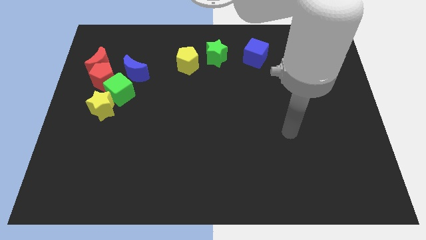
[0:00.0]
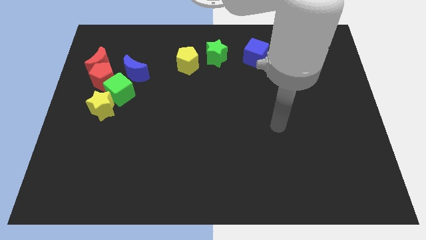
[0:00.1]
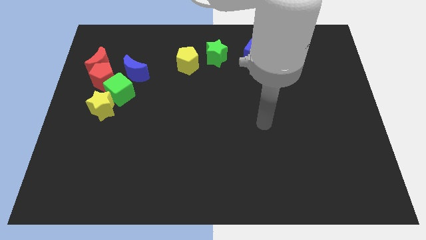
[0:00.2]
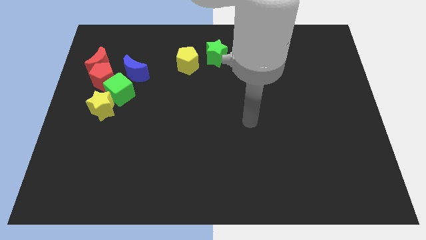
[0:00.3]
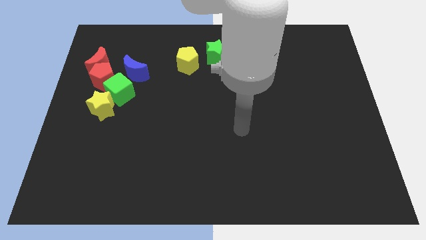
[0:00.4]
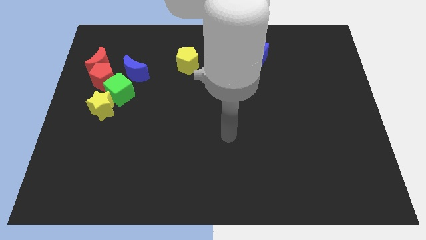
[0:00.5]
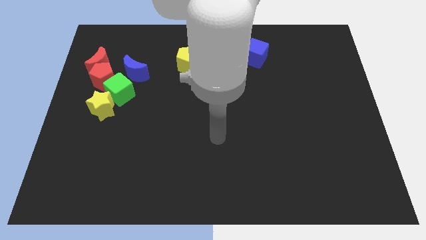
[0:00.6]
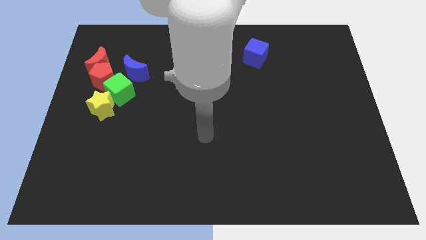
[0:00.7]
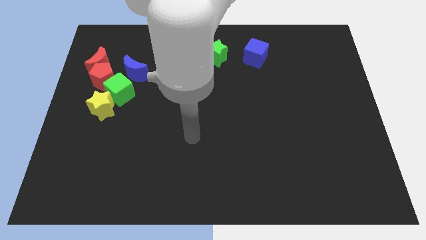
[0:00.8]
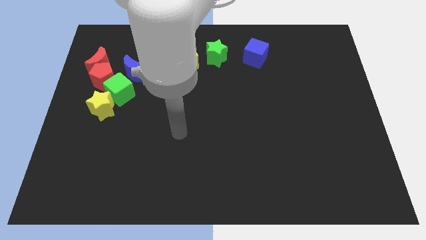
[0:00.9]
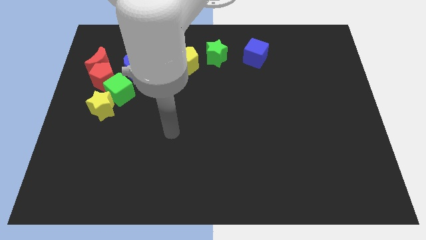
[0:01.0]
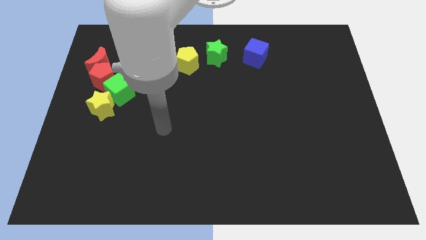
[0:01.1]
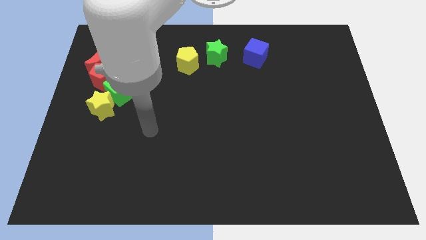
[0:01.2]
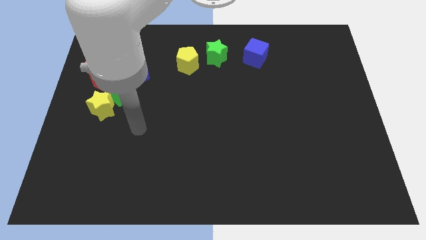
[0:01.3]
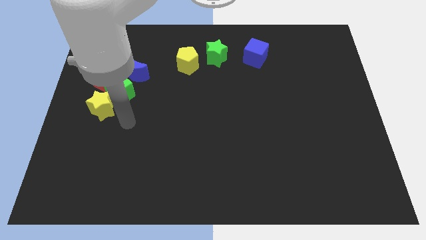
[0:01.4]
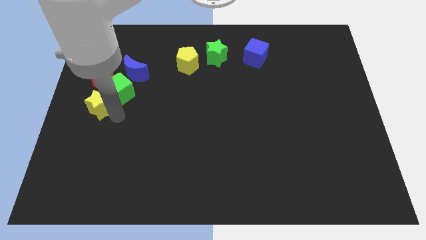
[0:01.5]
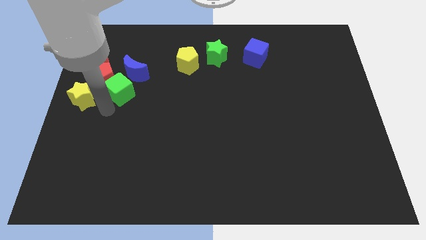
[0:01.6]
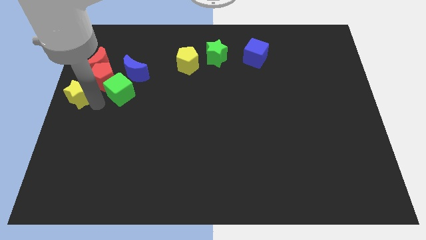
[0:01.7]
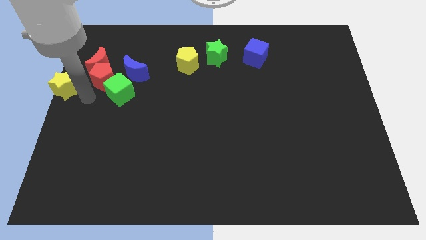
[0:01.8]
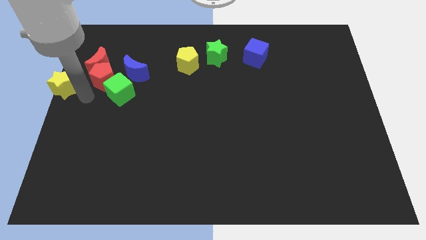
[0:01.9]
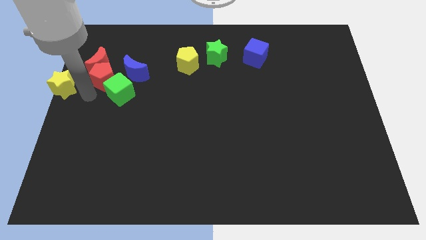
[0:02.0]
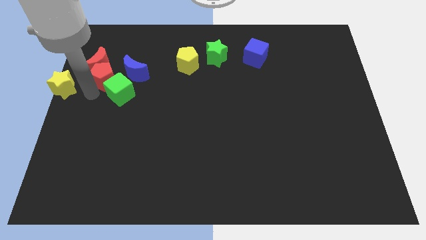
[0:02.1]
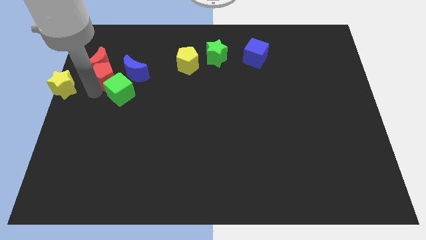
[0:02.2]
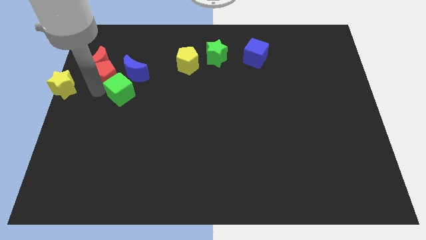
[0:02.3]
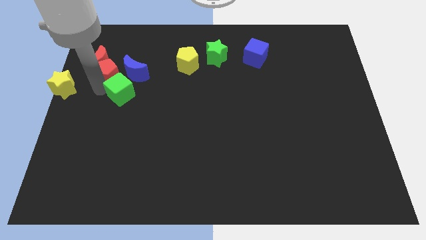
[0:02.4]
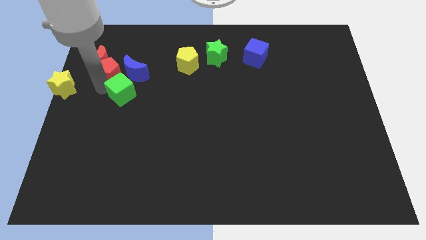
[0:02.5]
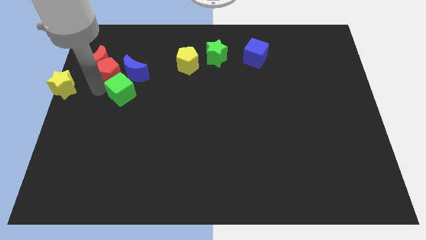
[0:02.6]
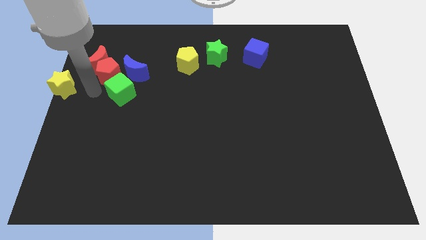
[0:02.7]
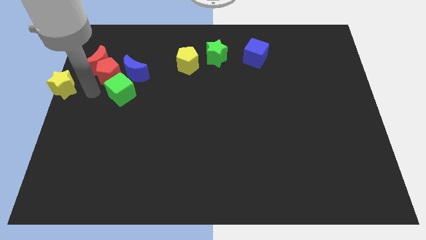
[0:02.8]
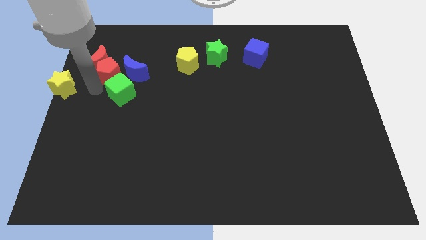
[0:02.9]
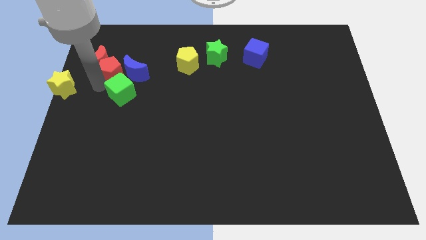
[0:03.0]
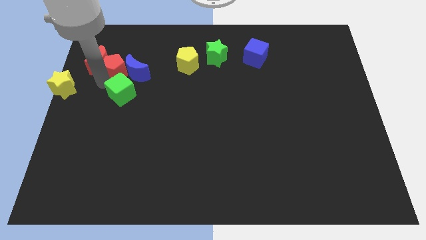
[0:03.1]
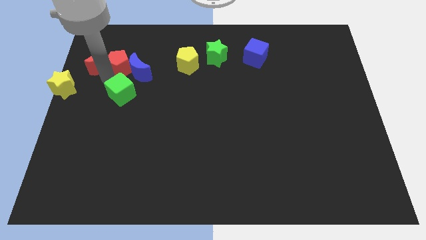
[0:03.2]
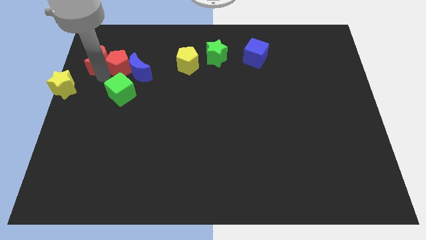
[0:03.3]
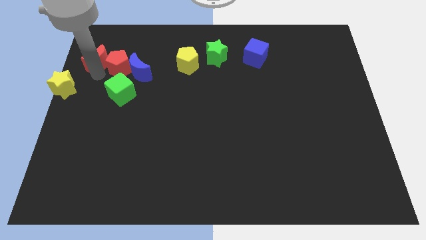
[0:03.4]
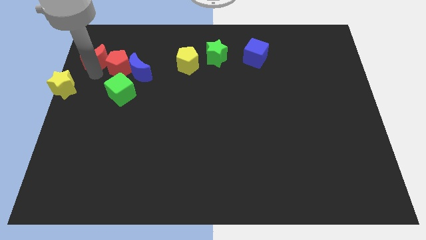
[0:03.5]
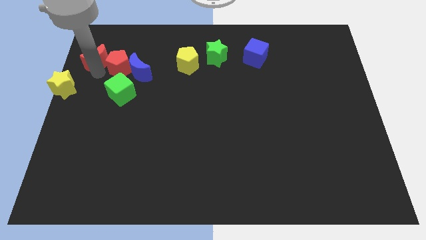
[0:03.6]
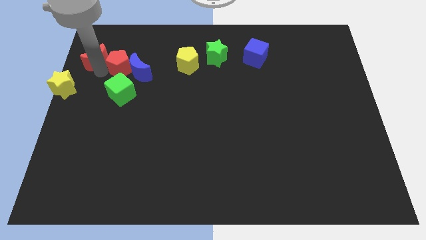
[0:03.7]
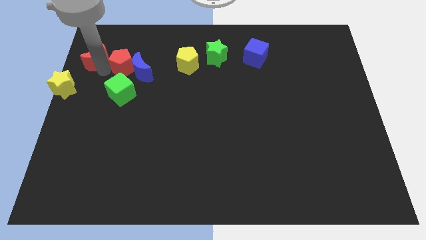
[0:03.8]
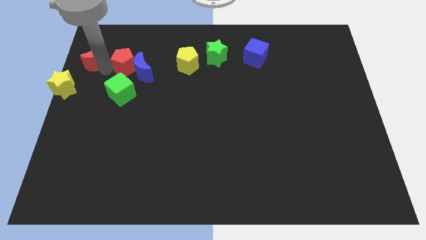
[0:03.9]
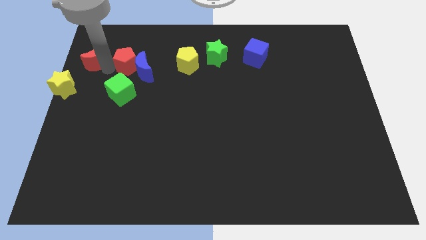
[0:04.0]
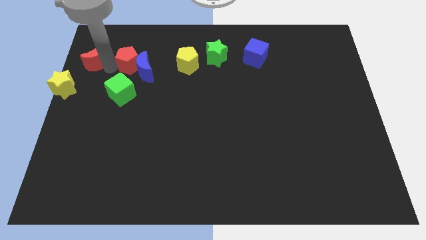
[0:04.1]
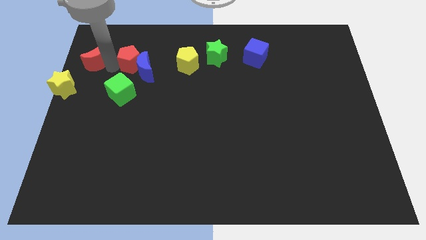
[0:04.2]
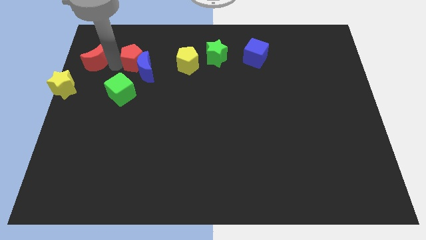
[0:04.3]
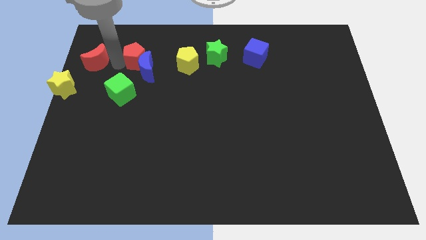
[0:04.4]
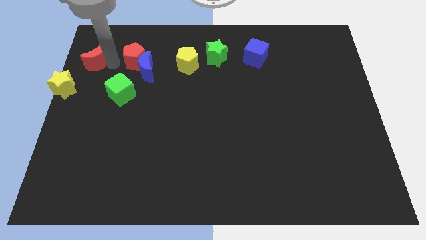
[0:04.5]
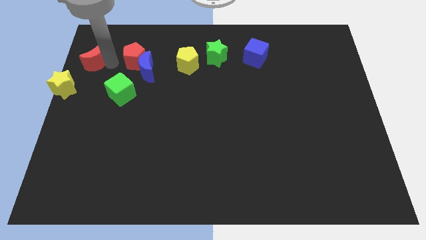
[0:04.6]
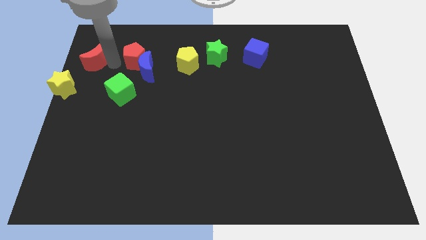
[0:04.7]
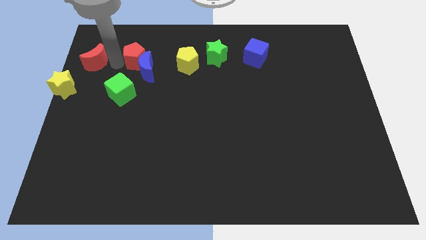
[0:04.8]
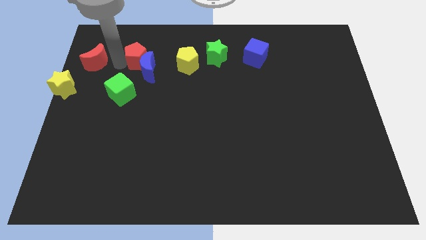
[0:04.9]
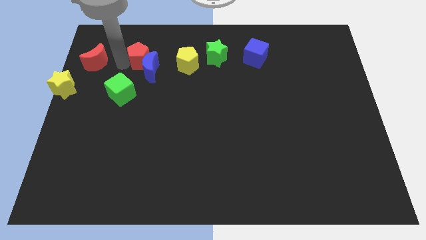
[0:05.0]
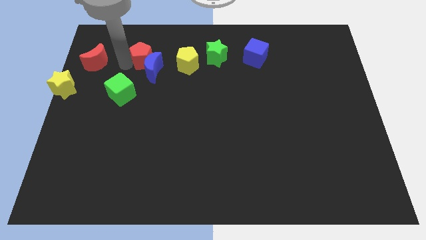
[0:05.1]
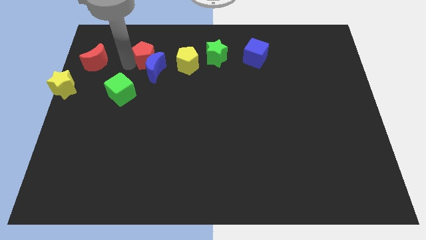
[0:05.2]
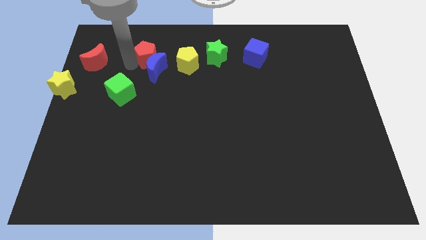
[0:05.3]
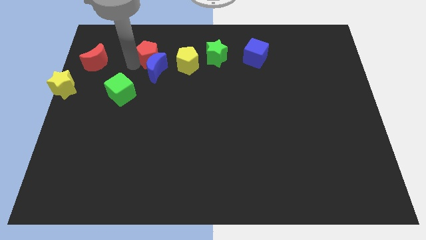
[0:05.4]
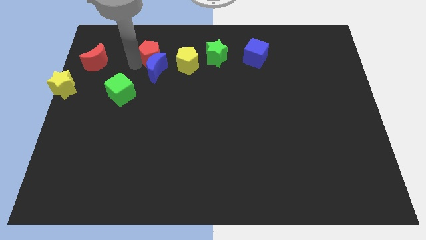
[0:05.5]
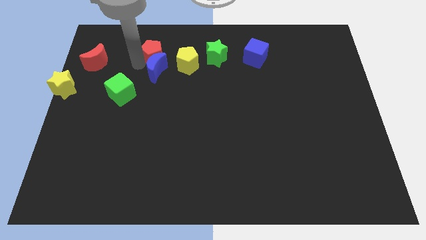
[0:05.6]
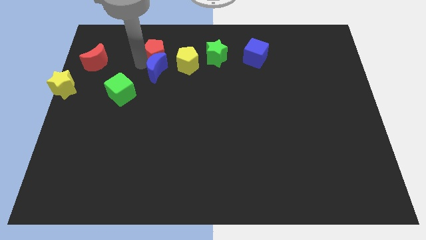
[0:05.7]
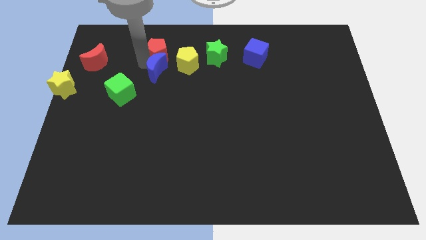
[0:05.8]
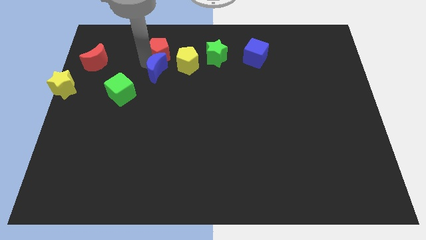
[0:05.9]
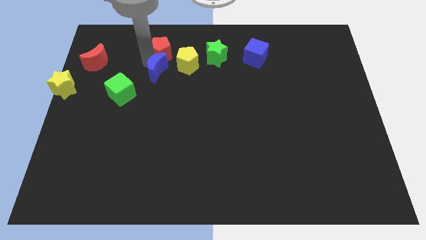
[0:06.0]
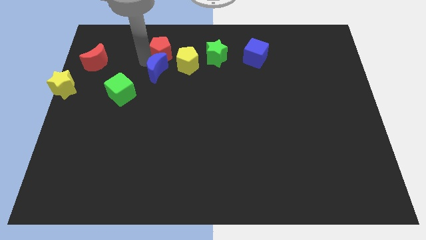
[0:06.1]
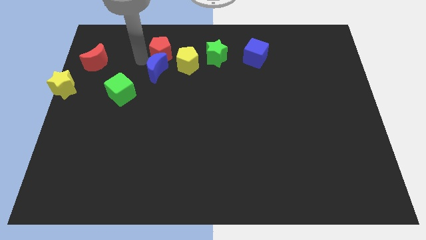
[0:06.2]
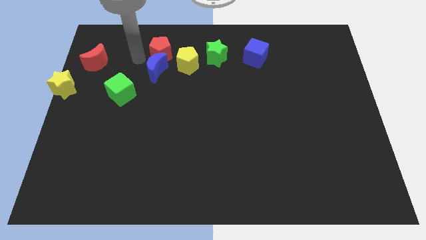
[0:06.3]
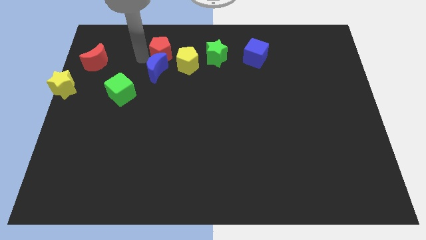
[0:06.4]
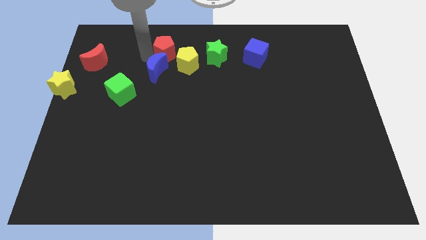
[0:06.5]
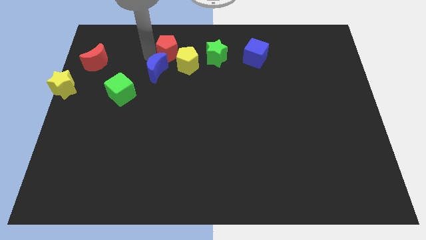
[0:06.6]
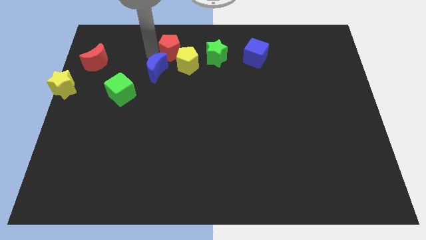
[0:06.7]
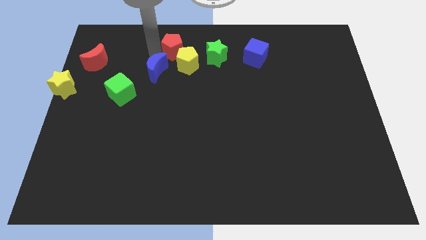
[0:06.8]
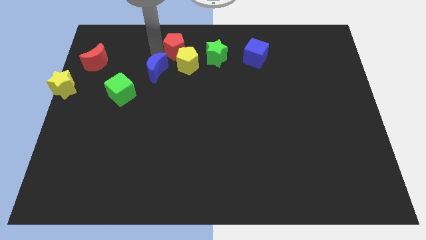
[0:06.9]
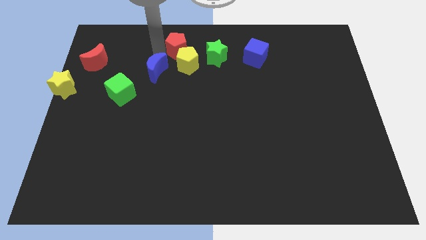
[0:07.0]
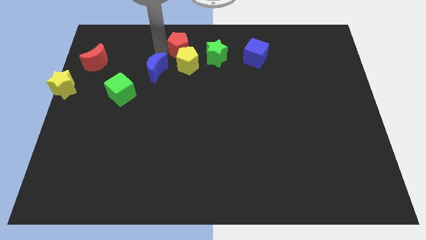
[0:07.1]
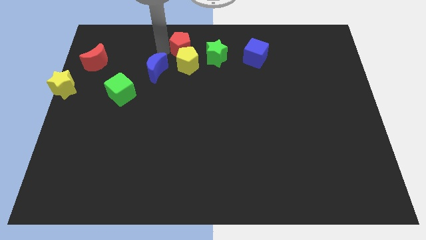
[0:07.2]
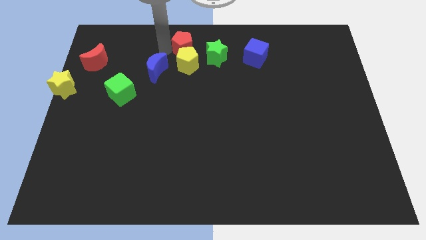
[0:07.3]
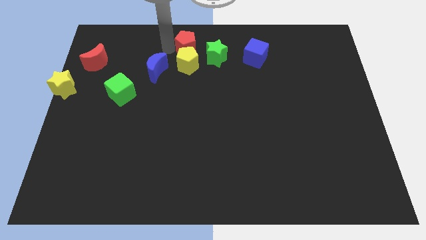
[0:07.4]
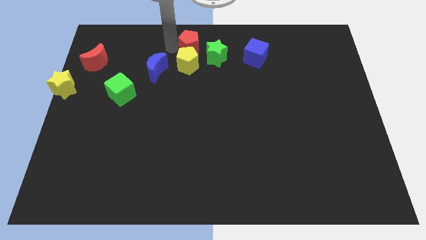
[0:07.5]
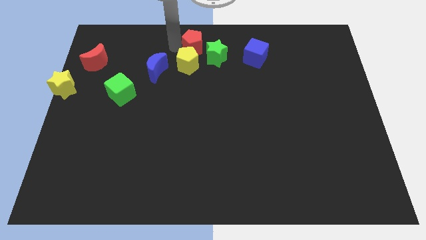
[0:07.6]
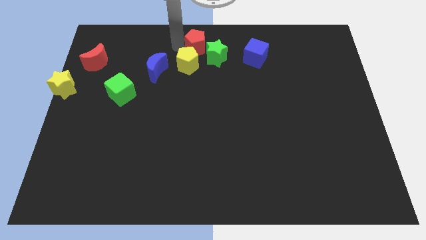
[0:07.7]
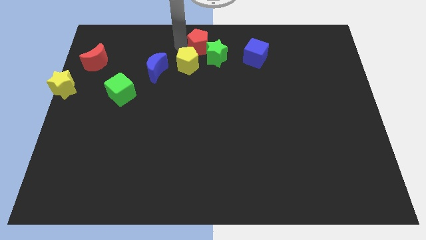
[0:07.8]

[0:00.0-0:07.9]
slide the red pentagon close to the green star
